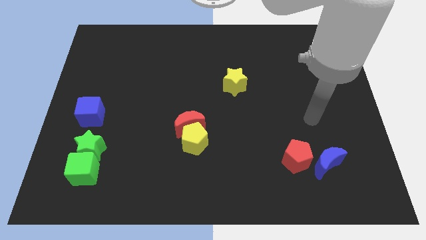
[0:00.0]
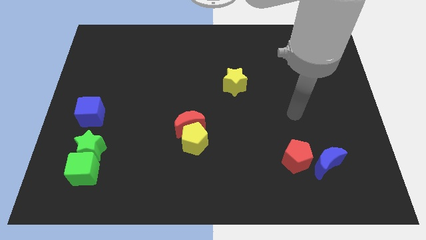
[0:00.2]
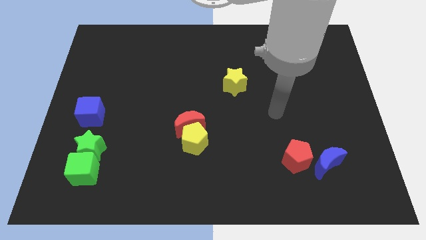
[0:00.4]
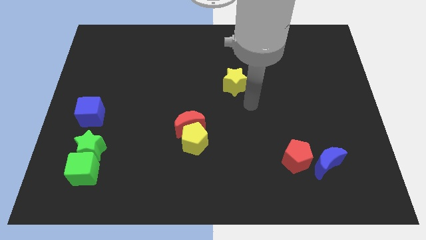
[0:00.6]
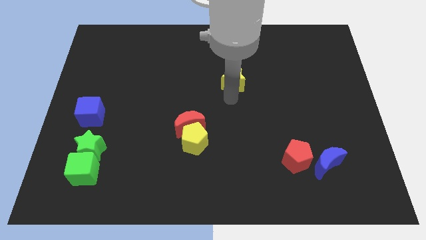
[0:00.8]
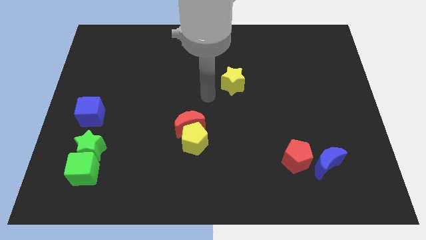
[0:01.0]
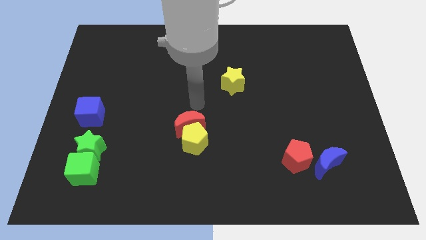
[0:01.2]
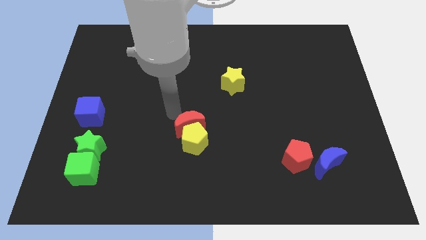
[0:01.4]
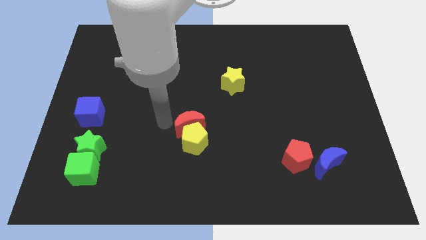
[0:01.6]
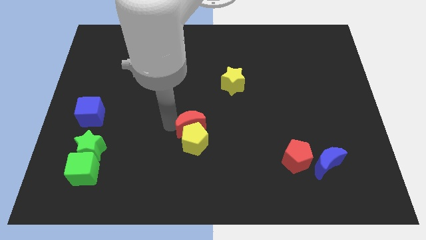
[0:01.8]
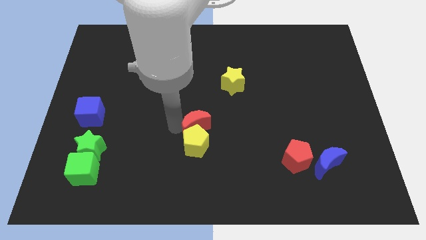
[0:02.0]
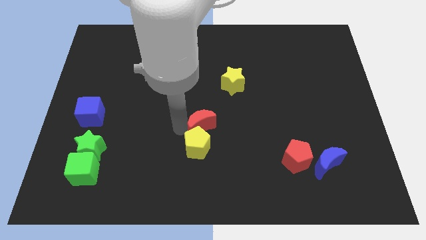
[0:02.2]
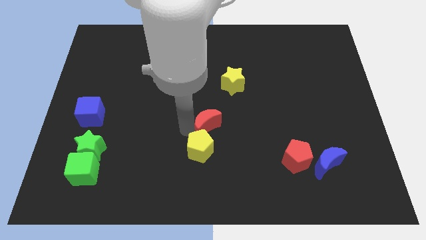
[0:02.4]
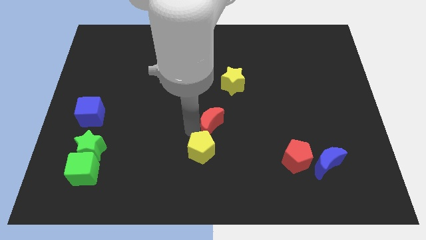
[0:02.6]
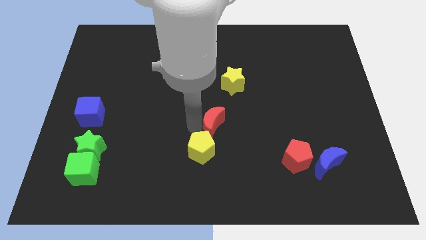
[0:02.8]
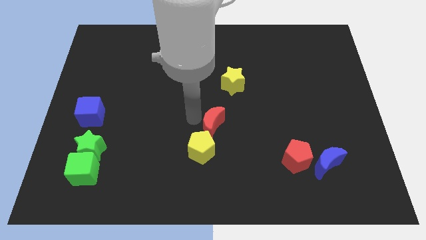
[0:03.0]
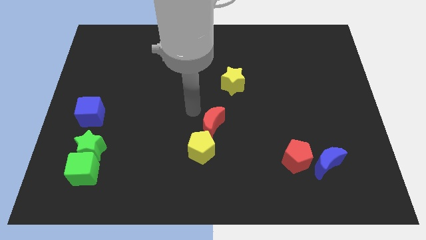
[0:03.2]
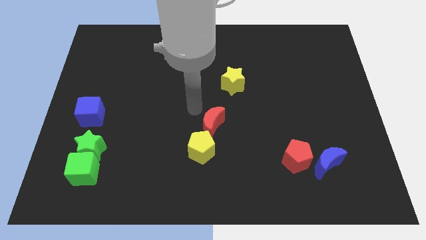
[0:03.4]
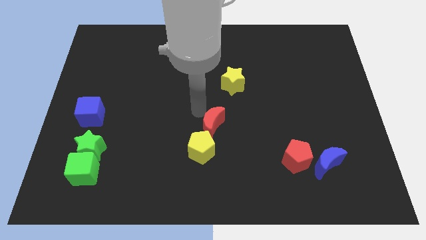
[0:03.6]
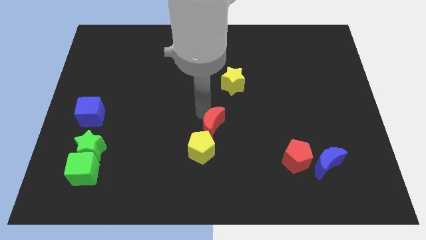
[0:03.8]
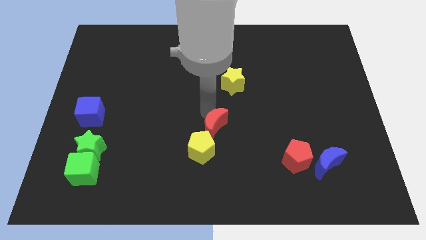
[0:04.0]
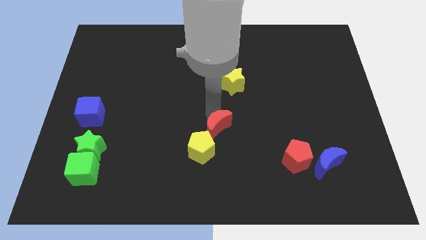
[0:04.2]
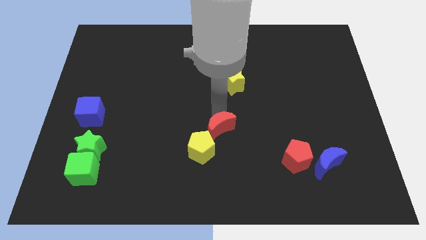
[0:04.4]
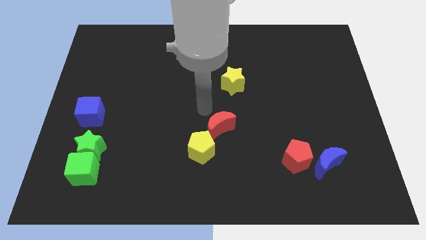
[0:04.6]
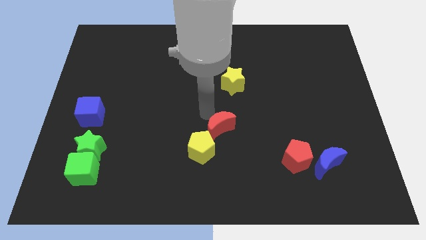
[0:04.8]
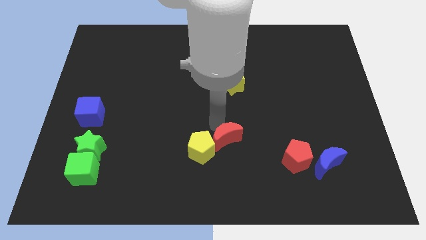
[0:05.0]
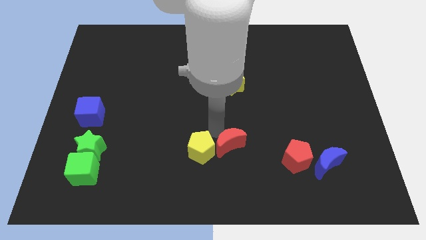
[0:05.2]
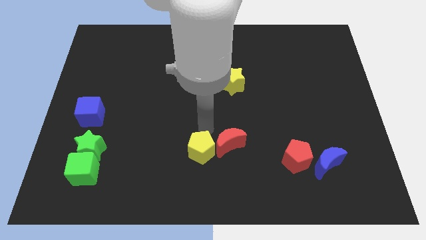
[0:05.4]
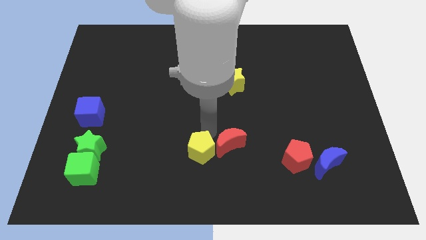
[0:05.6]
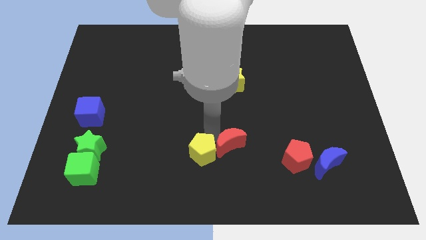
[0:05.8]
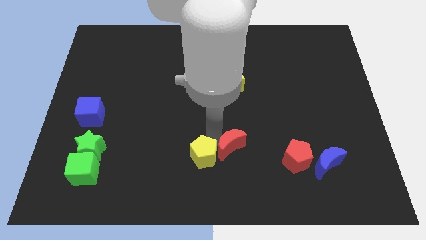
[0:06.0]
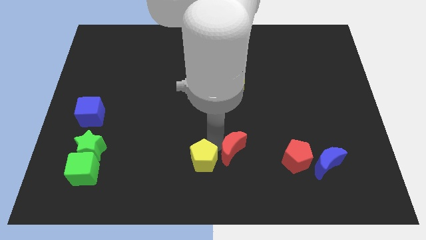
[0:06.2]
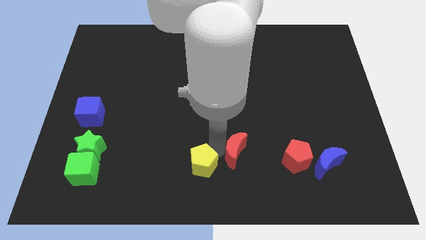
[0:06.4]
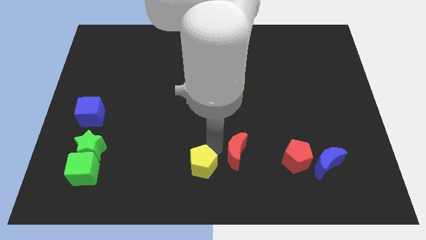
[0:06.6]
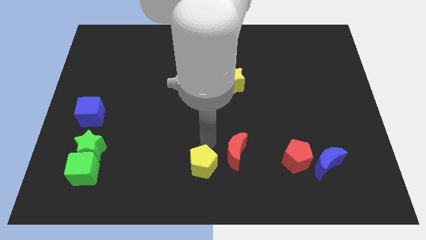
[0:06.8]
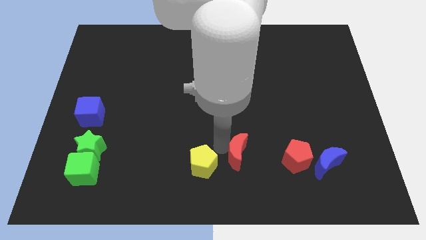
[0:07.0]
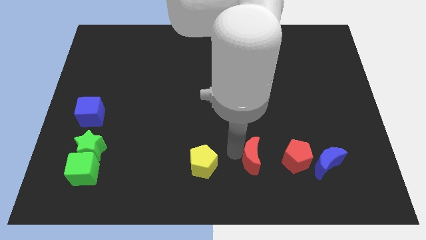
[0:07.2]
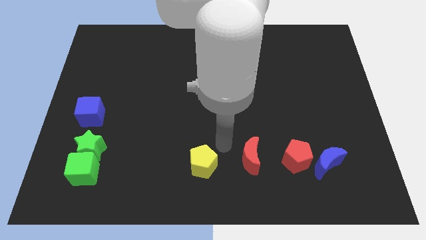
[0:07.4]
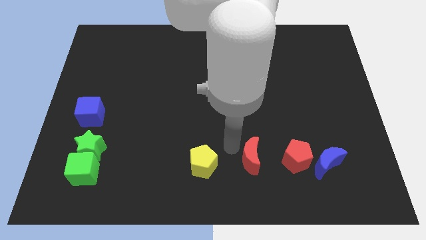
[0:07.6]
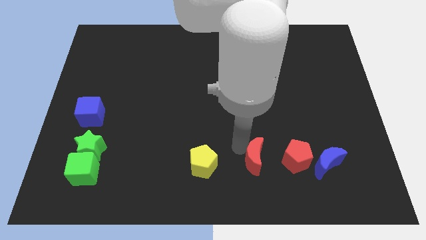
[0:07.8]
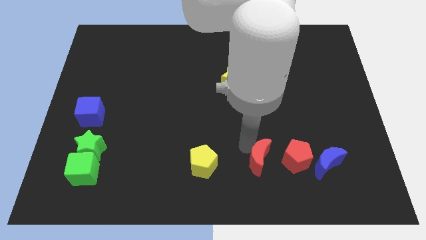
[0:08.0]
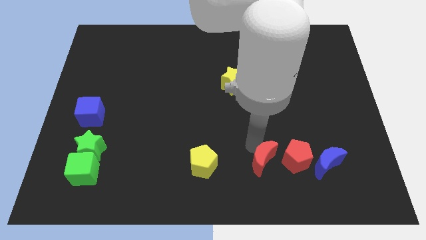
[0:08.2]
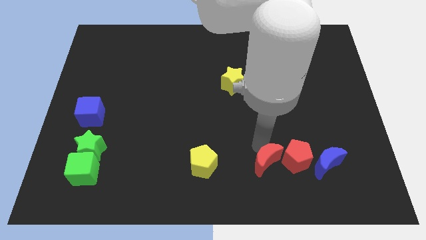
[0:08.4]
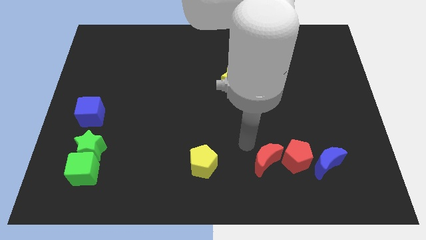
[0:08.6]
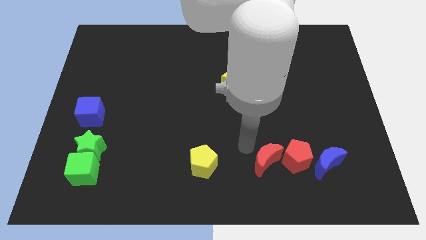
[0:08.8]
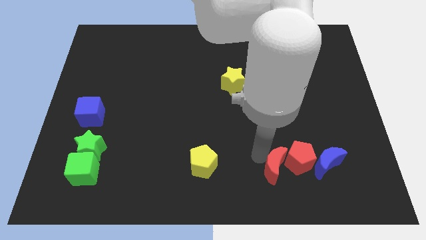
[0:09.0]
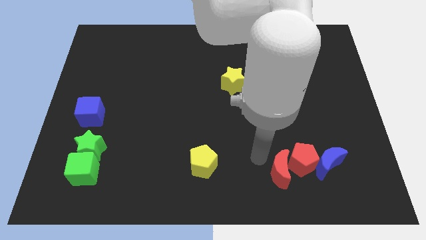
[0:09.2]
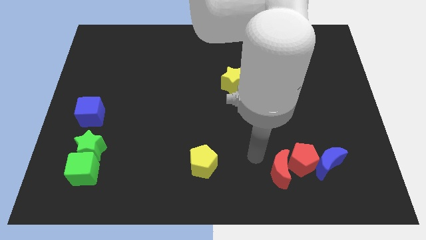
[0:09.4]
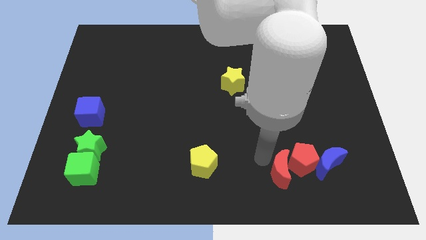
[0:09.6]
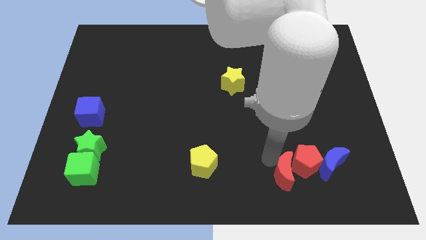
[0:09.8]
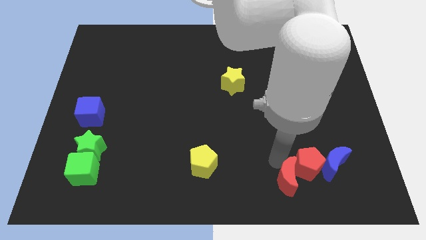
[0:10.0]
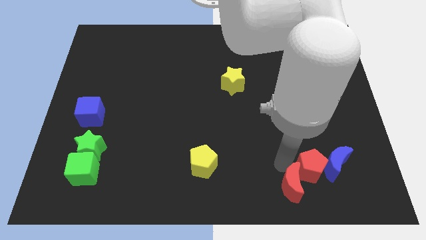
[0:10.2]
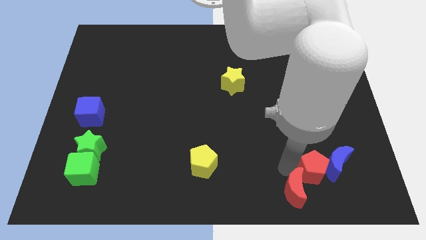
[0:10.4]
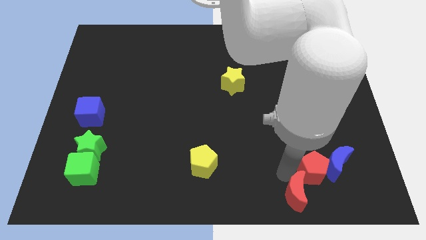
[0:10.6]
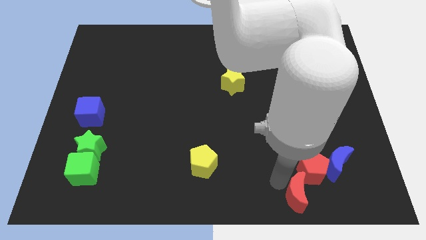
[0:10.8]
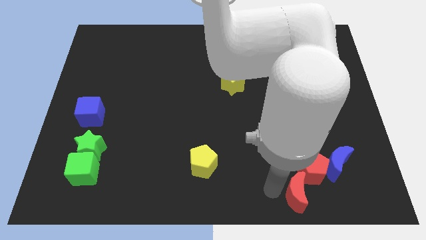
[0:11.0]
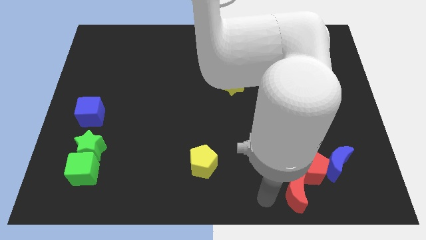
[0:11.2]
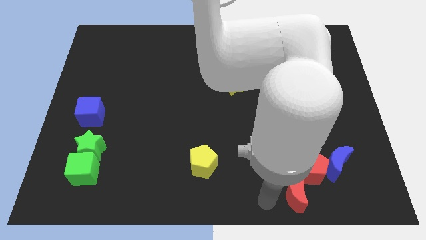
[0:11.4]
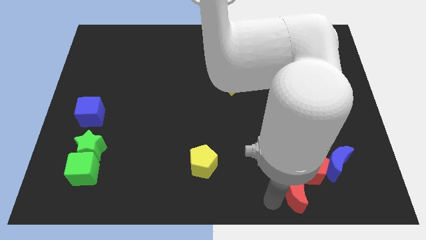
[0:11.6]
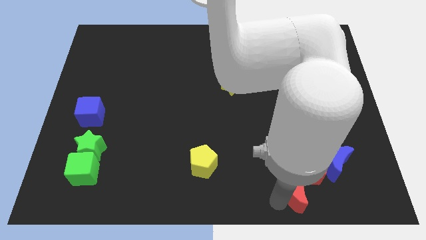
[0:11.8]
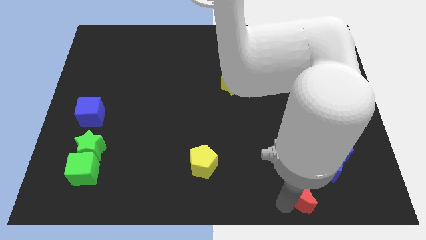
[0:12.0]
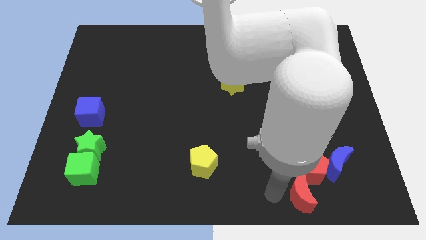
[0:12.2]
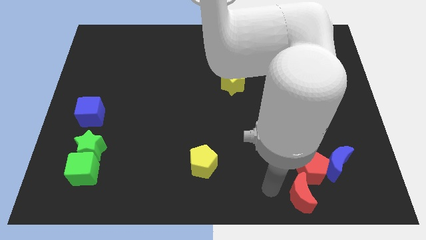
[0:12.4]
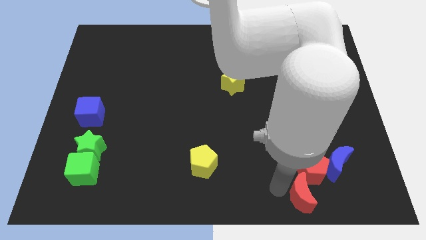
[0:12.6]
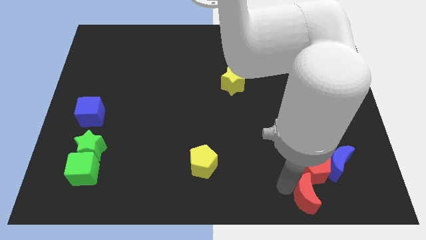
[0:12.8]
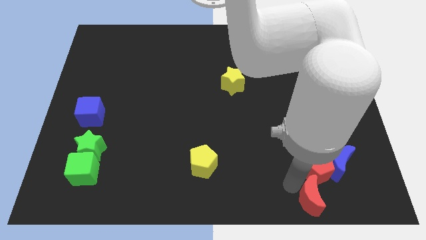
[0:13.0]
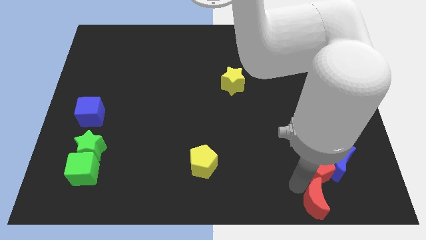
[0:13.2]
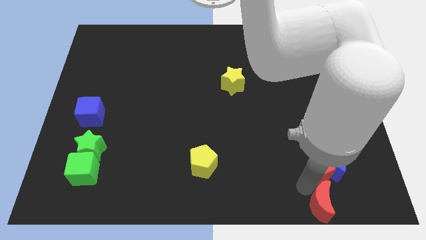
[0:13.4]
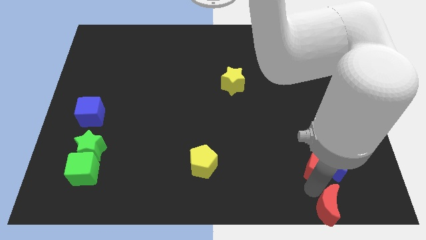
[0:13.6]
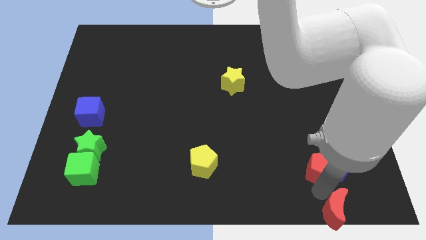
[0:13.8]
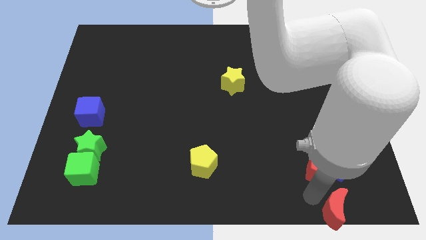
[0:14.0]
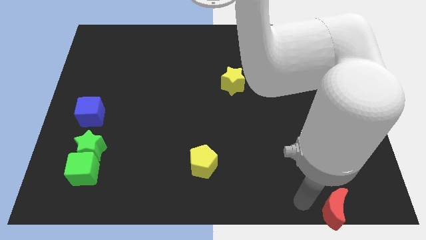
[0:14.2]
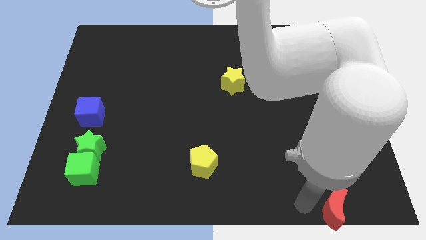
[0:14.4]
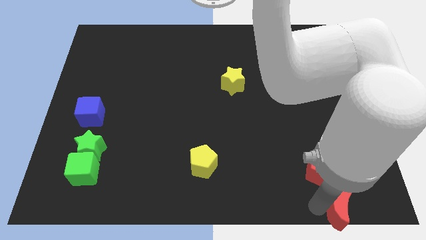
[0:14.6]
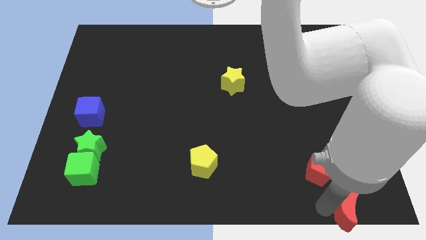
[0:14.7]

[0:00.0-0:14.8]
move the red moon to the bottom right corner
